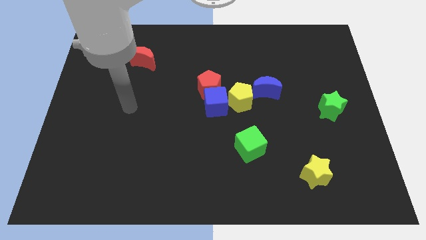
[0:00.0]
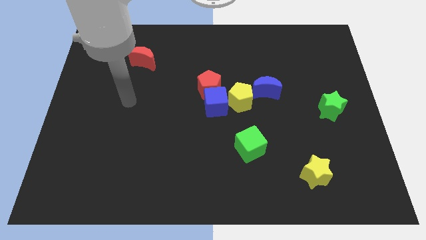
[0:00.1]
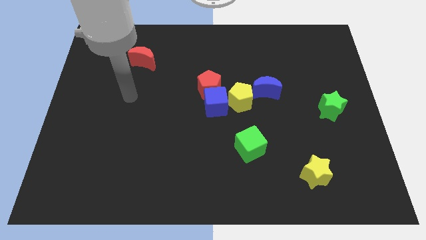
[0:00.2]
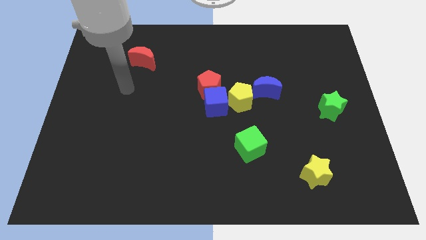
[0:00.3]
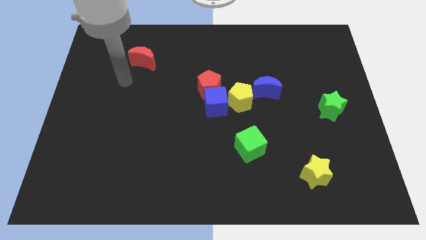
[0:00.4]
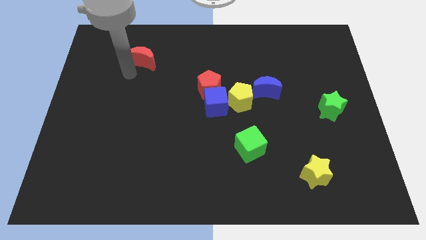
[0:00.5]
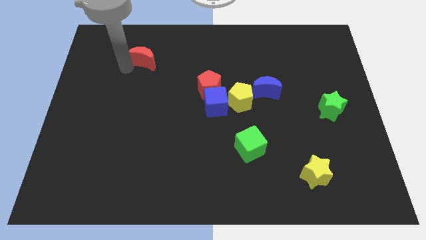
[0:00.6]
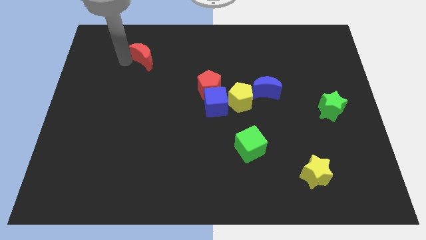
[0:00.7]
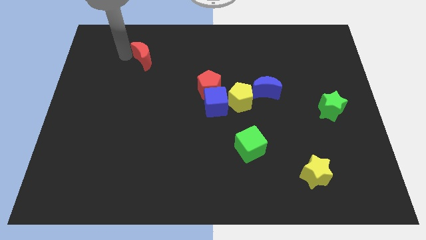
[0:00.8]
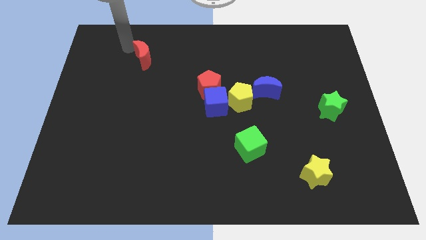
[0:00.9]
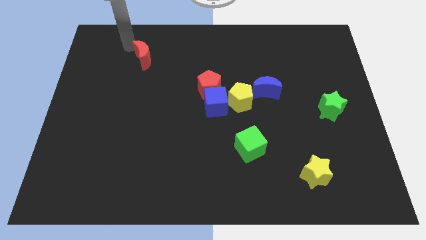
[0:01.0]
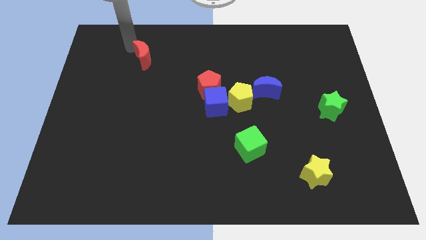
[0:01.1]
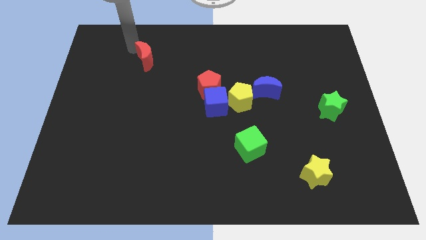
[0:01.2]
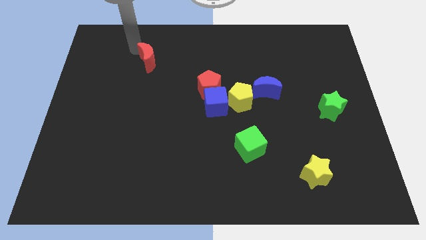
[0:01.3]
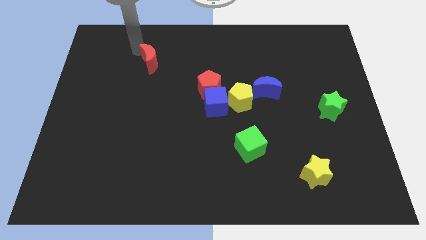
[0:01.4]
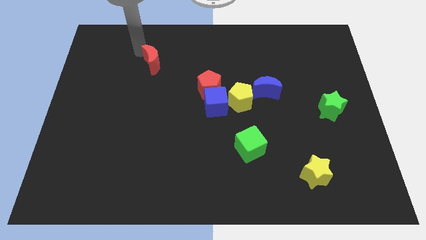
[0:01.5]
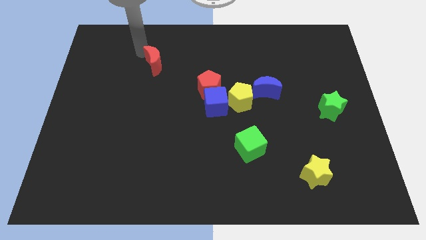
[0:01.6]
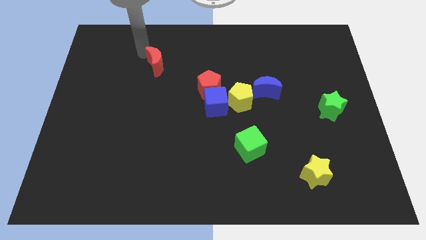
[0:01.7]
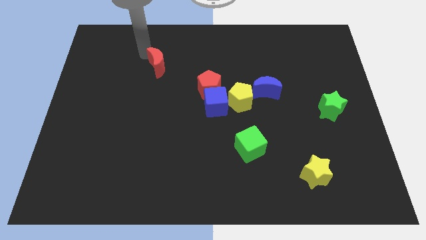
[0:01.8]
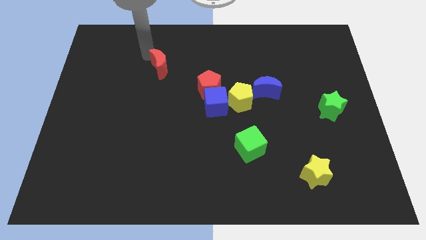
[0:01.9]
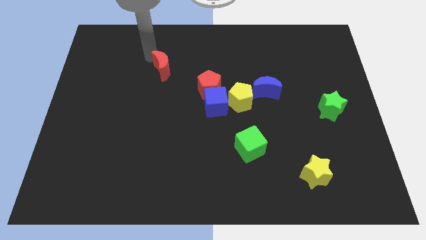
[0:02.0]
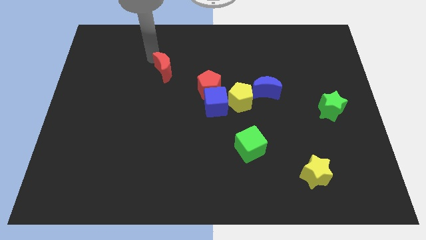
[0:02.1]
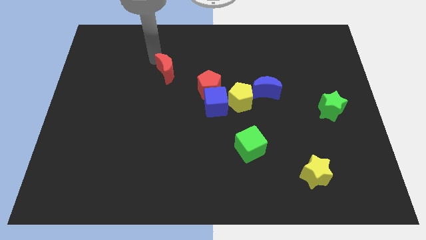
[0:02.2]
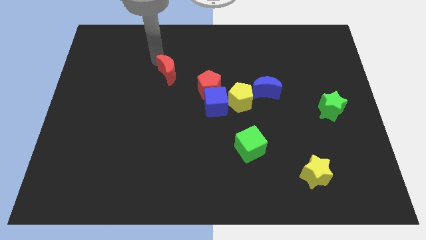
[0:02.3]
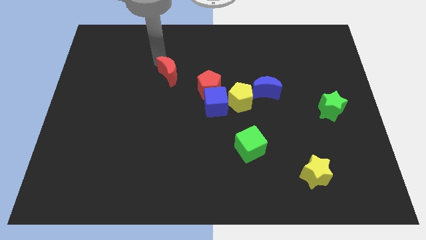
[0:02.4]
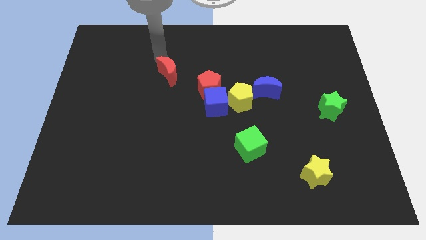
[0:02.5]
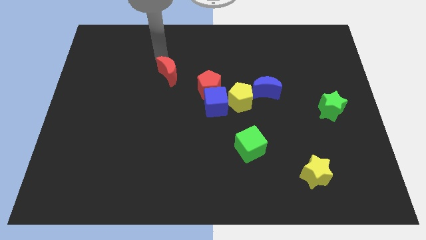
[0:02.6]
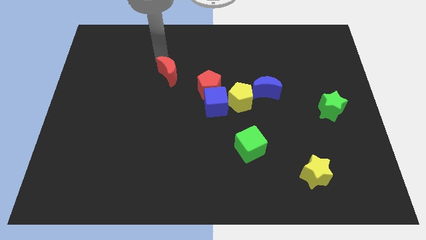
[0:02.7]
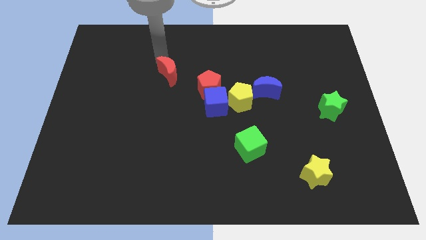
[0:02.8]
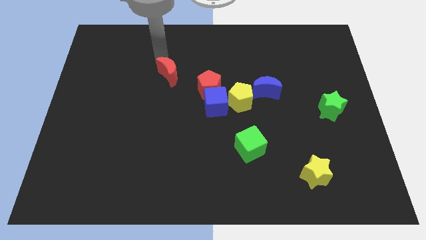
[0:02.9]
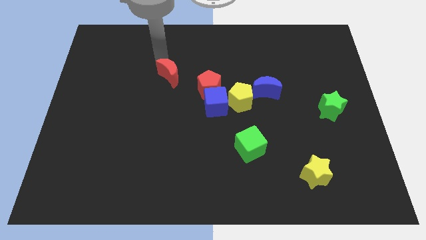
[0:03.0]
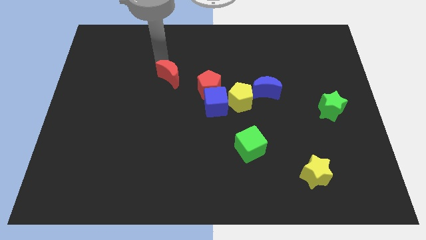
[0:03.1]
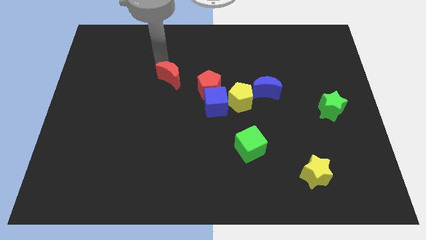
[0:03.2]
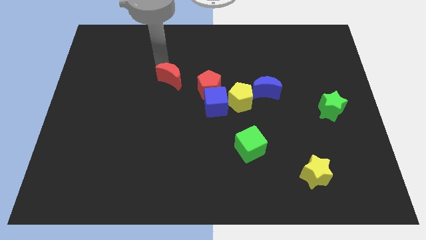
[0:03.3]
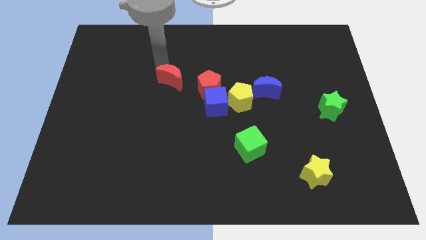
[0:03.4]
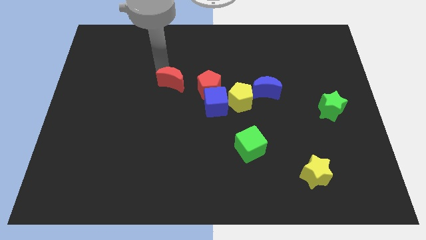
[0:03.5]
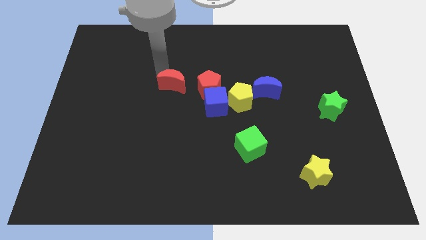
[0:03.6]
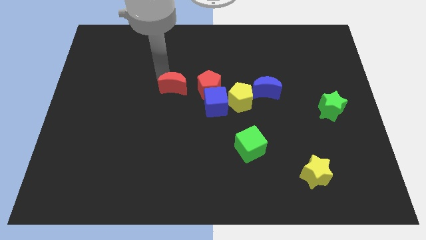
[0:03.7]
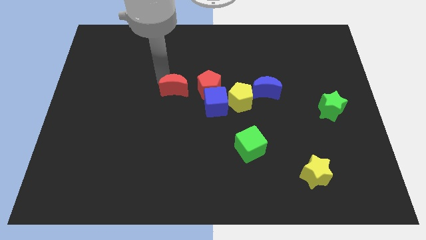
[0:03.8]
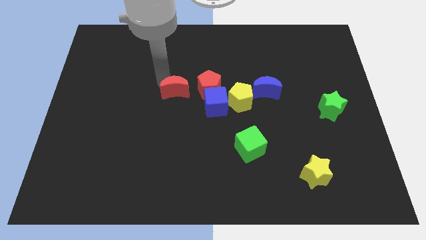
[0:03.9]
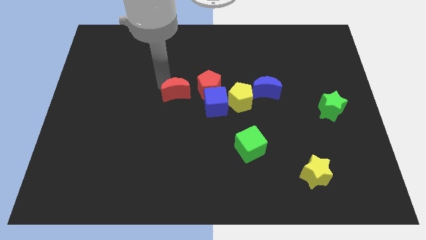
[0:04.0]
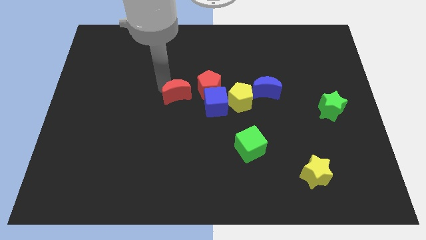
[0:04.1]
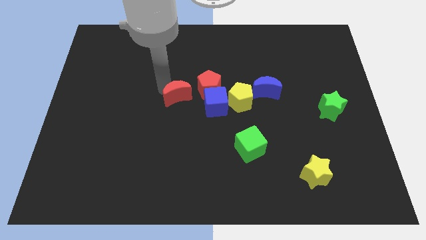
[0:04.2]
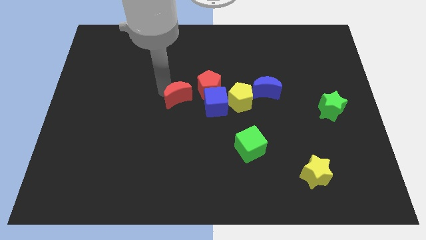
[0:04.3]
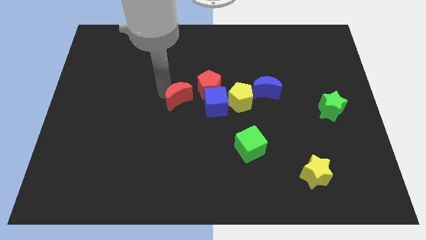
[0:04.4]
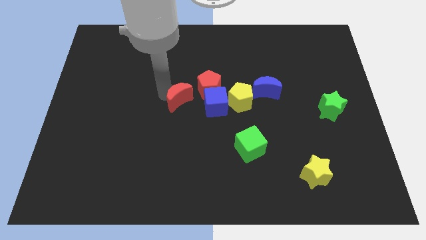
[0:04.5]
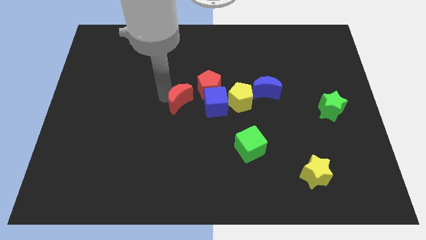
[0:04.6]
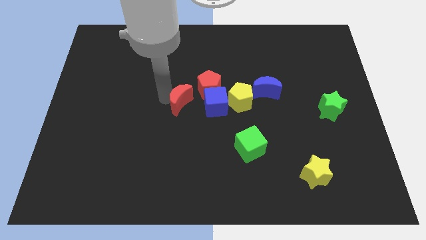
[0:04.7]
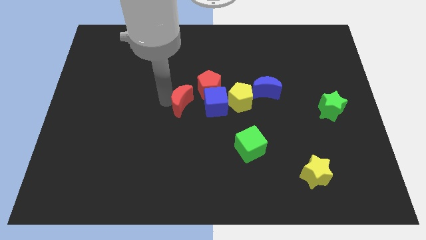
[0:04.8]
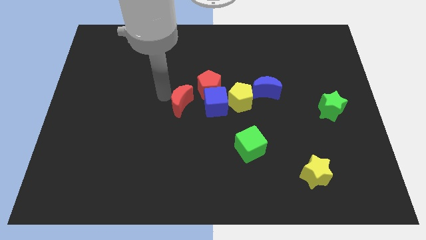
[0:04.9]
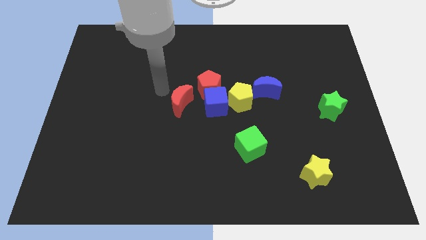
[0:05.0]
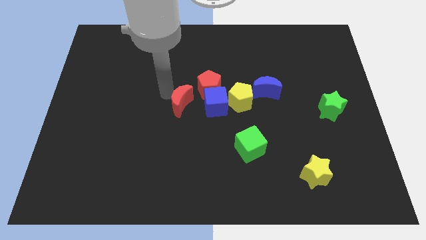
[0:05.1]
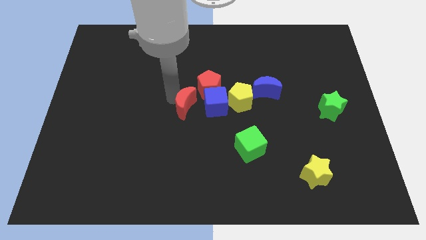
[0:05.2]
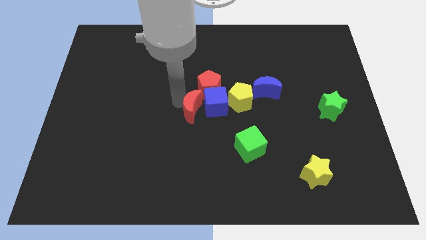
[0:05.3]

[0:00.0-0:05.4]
move the red moon to the bottom side of the red pentagon

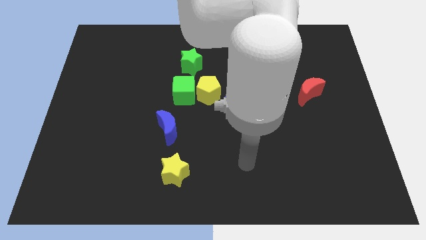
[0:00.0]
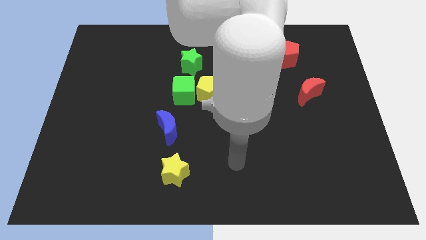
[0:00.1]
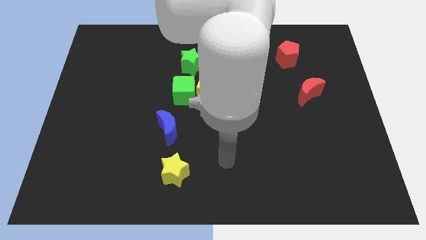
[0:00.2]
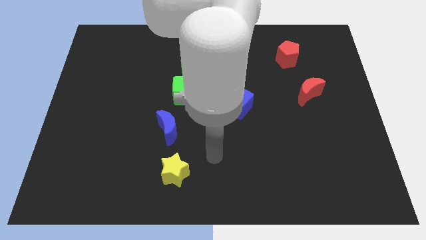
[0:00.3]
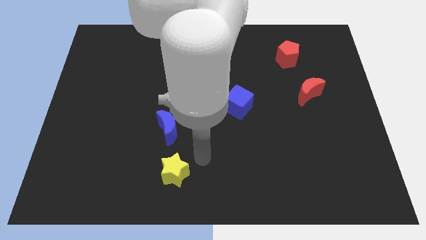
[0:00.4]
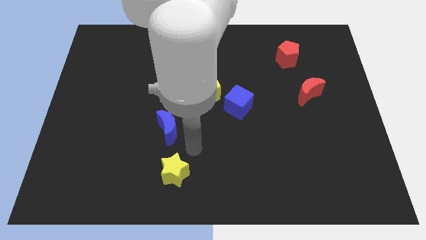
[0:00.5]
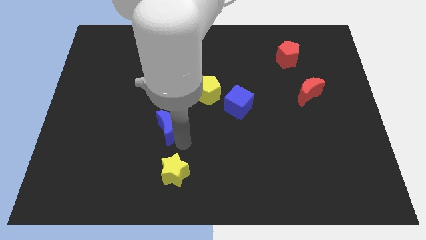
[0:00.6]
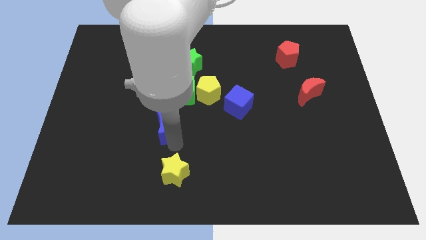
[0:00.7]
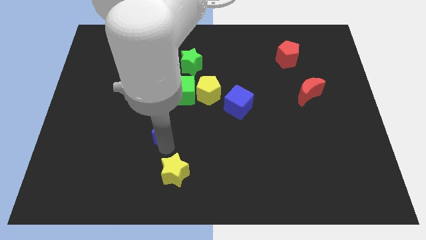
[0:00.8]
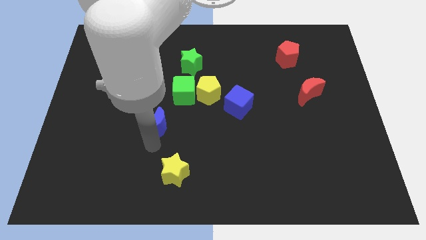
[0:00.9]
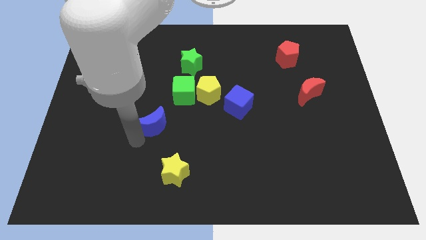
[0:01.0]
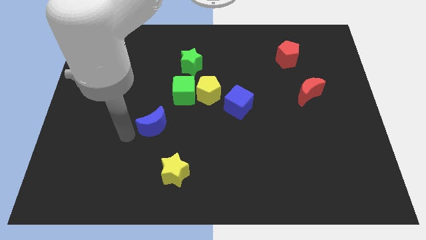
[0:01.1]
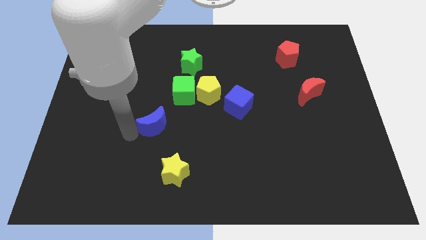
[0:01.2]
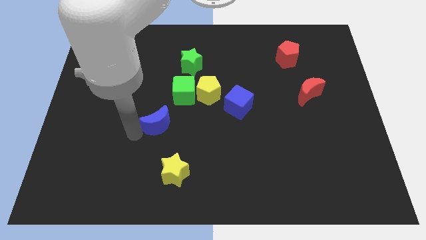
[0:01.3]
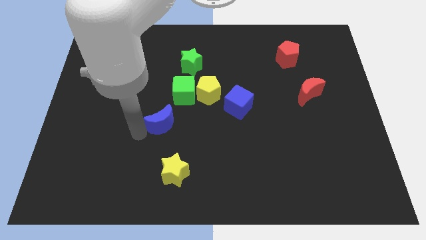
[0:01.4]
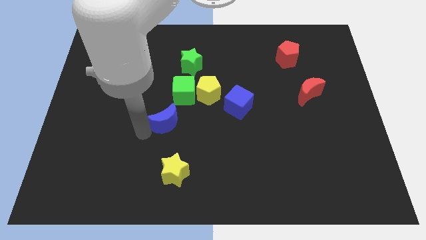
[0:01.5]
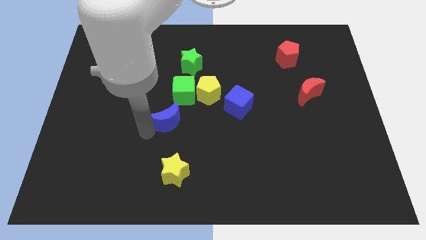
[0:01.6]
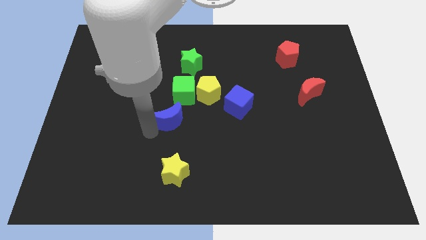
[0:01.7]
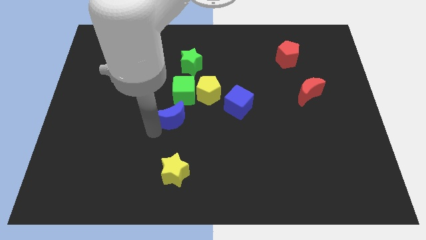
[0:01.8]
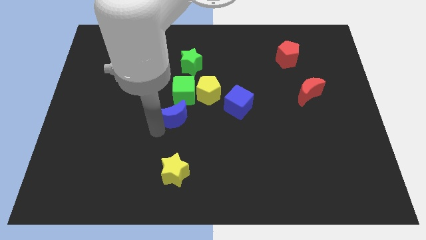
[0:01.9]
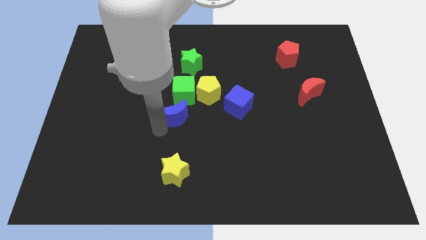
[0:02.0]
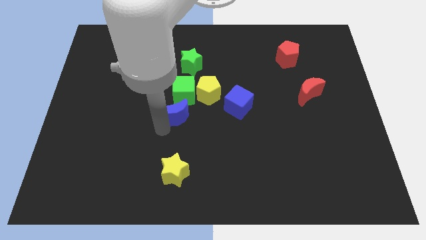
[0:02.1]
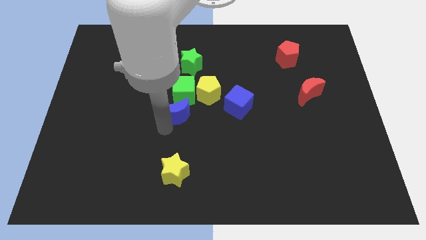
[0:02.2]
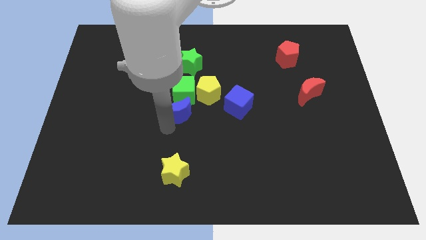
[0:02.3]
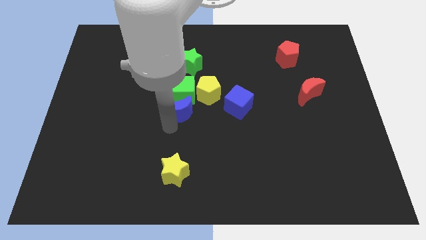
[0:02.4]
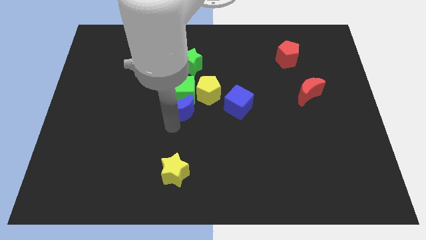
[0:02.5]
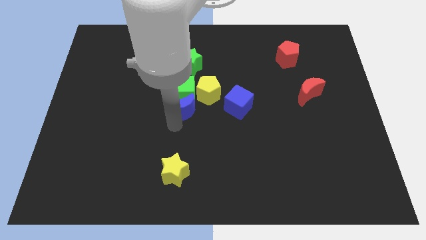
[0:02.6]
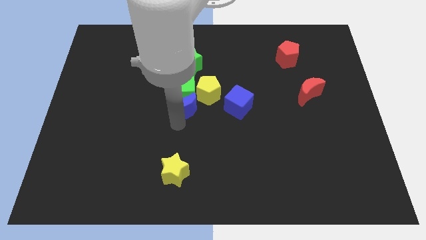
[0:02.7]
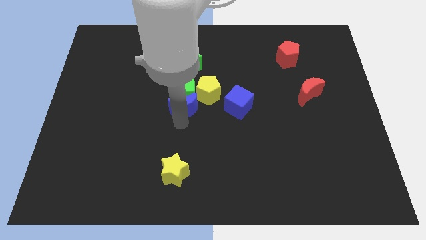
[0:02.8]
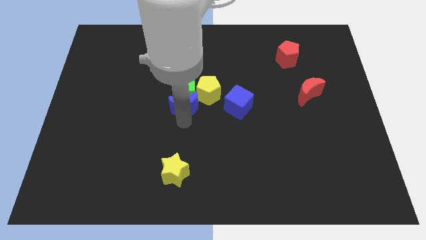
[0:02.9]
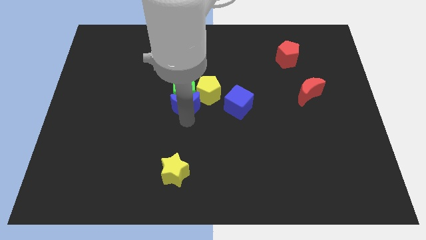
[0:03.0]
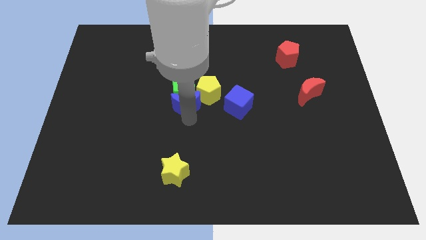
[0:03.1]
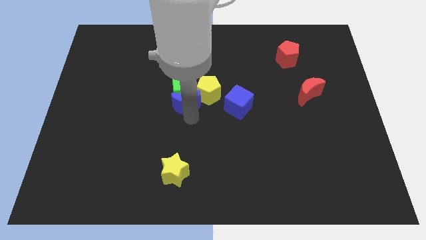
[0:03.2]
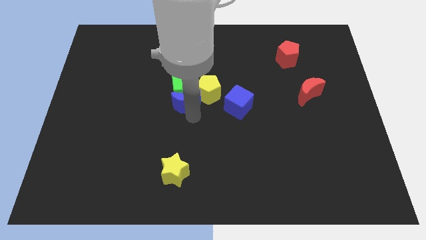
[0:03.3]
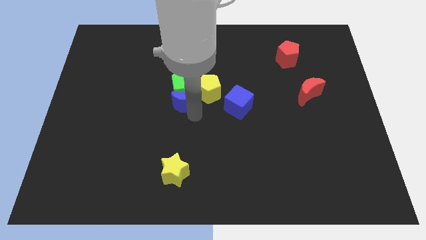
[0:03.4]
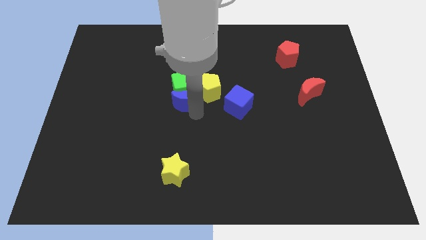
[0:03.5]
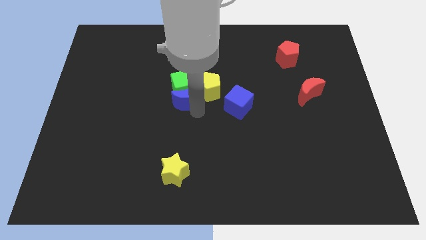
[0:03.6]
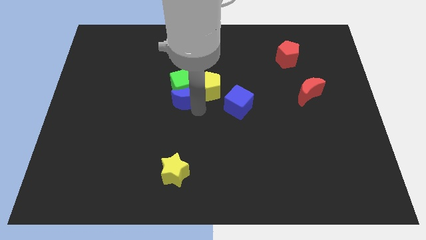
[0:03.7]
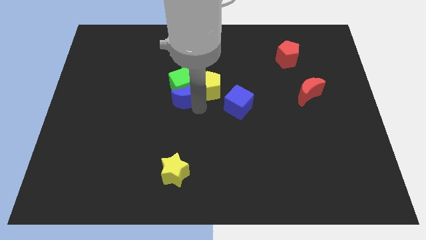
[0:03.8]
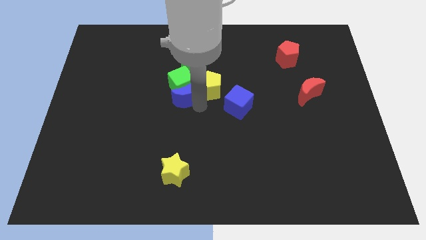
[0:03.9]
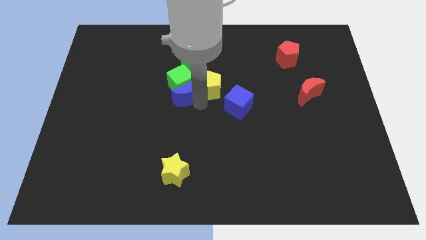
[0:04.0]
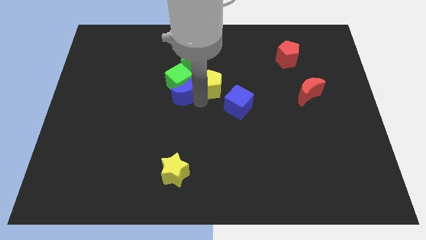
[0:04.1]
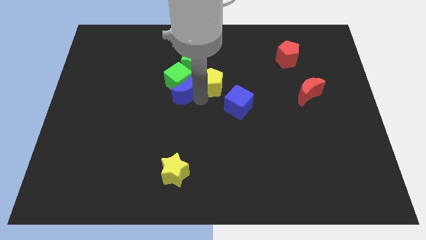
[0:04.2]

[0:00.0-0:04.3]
push the blue moon just right of the green cube
